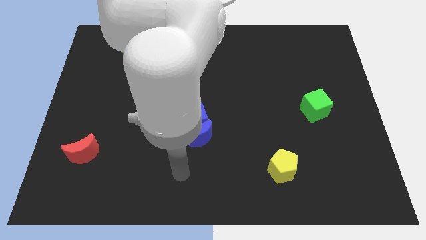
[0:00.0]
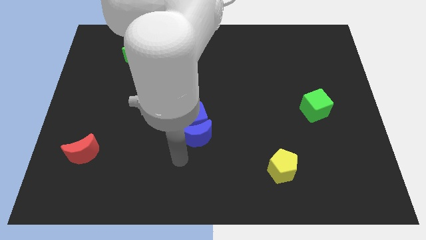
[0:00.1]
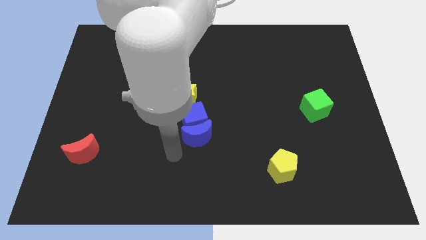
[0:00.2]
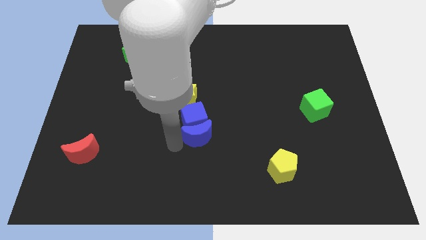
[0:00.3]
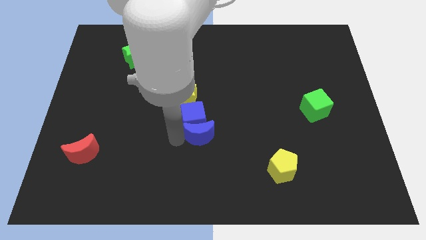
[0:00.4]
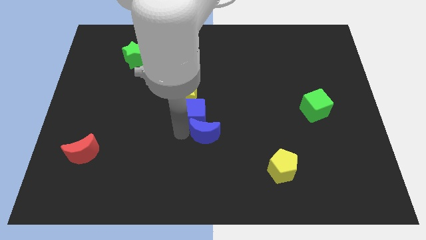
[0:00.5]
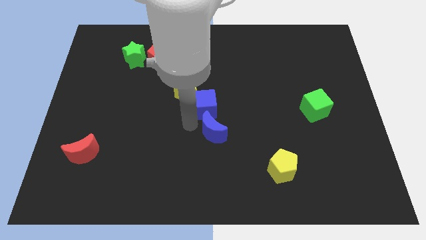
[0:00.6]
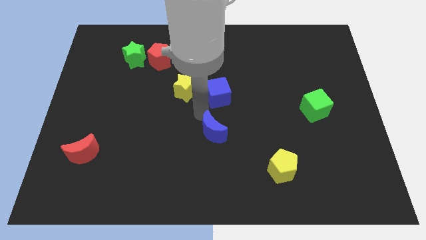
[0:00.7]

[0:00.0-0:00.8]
separate the blue moon from the blue cube

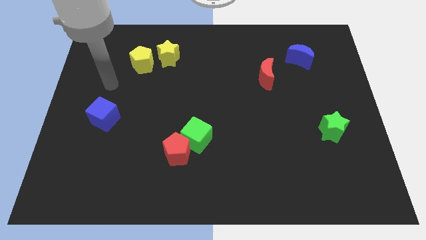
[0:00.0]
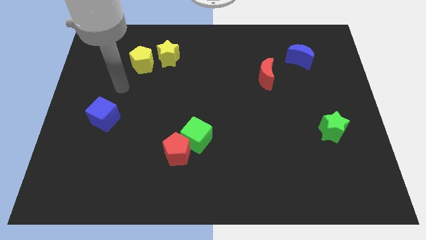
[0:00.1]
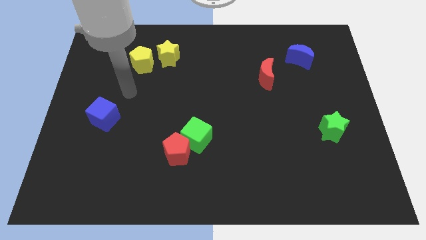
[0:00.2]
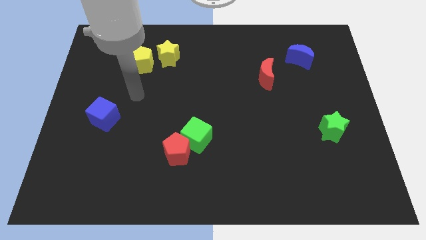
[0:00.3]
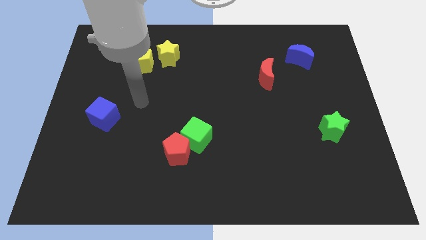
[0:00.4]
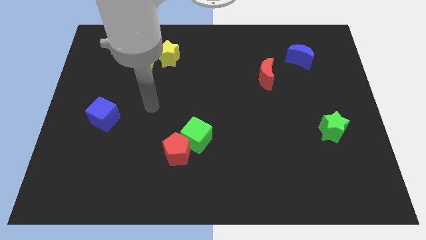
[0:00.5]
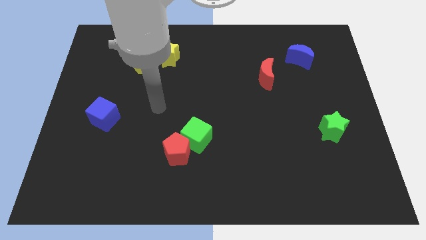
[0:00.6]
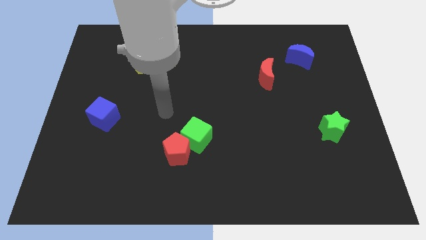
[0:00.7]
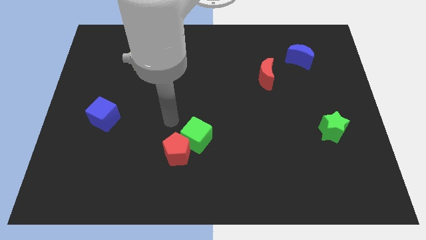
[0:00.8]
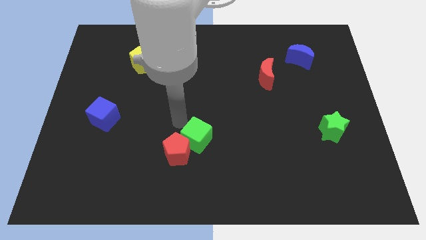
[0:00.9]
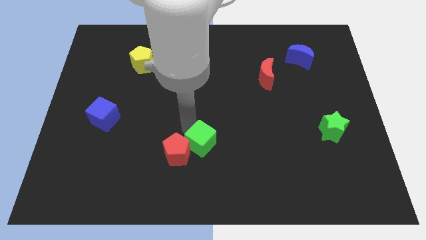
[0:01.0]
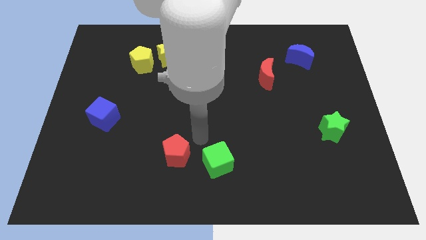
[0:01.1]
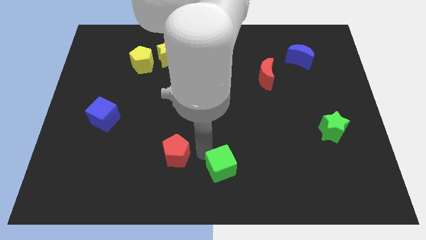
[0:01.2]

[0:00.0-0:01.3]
move the red pentagon away from the green cube

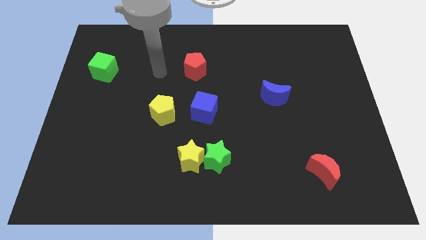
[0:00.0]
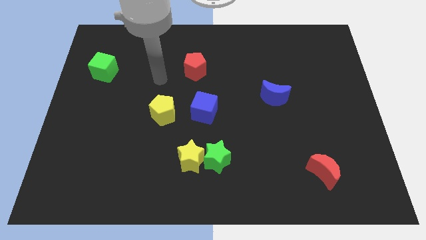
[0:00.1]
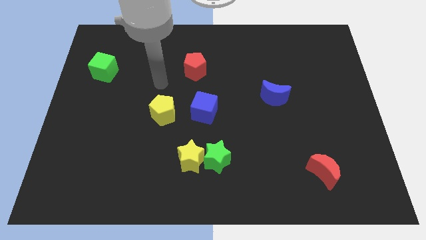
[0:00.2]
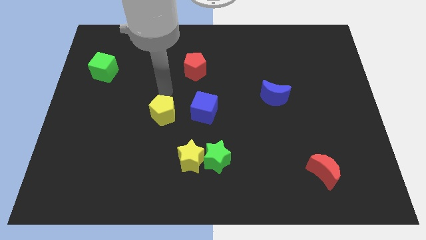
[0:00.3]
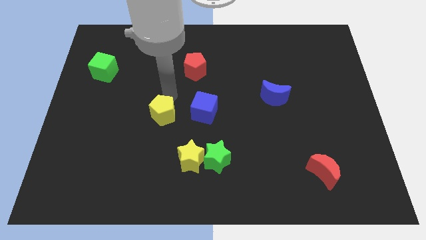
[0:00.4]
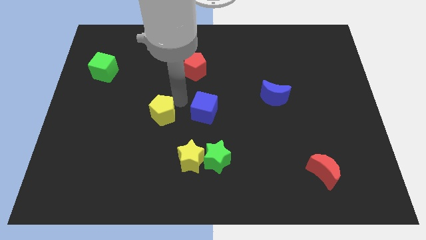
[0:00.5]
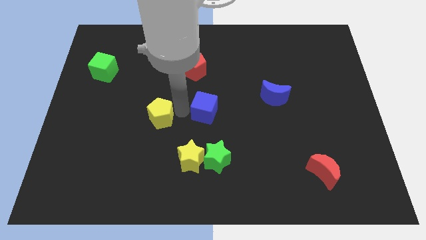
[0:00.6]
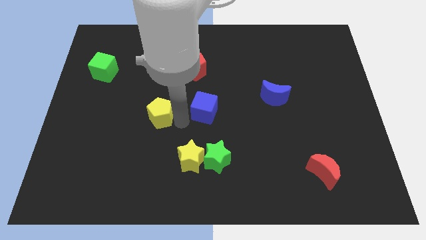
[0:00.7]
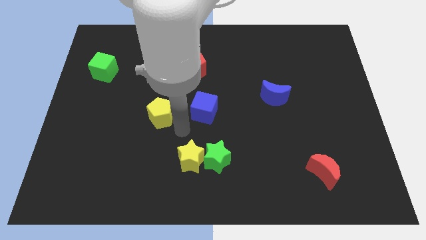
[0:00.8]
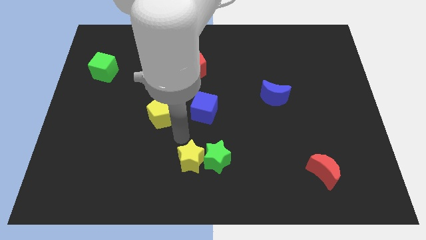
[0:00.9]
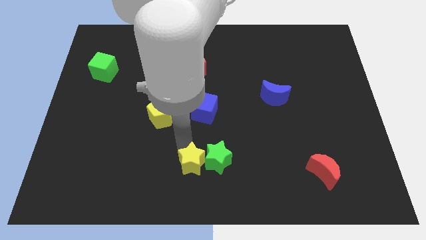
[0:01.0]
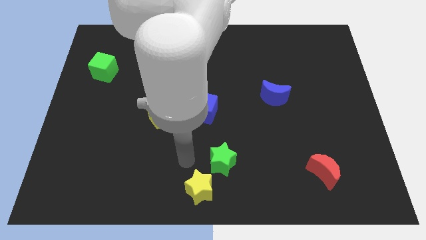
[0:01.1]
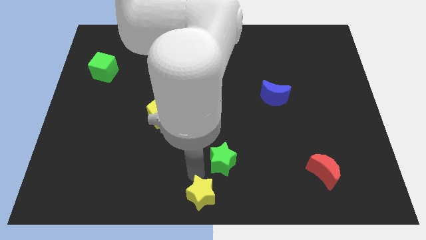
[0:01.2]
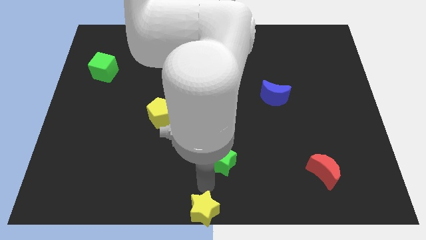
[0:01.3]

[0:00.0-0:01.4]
move the green star away from the yellow star

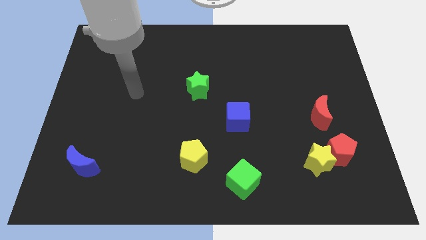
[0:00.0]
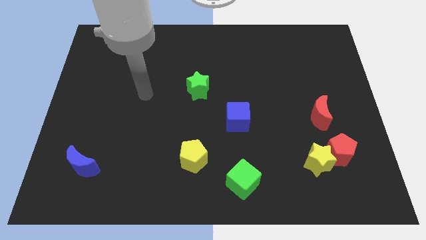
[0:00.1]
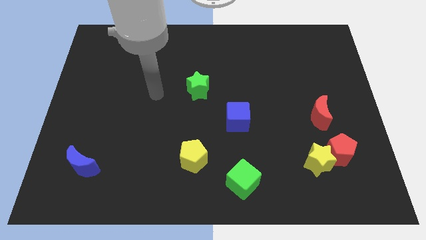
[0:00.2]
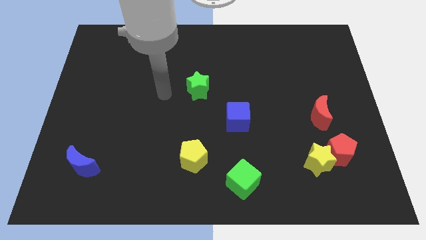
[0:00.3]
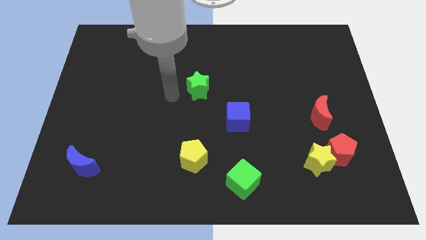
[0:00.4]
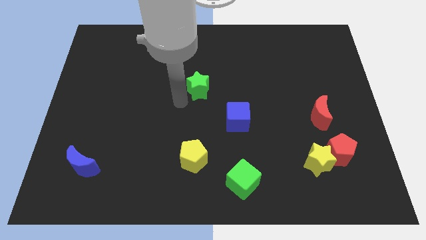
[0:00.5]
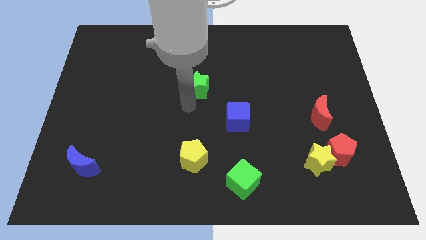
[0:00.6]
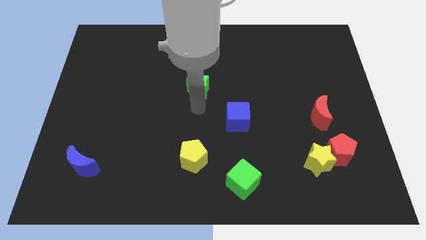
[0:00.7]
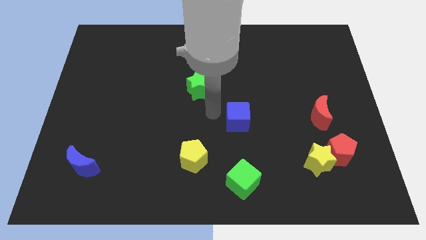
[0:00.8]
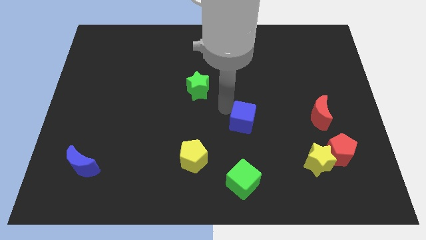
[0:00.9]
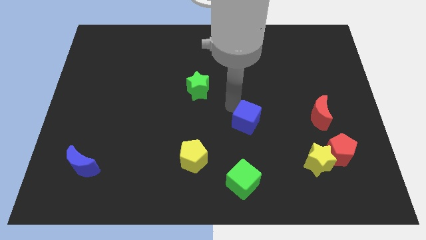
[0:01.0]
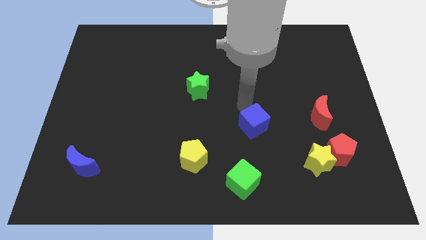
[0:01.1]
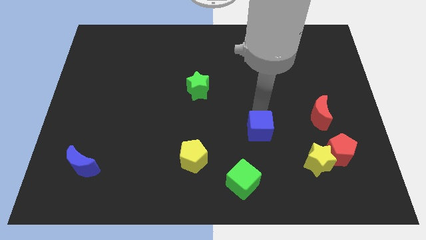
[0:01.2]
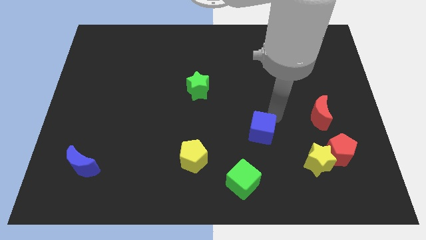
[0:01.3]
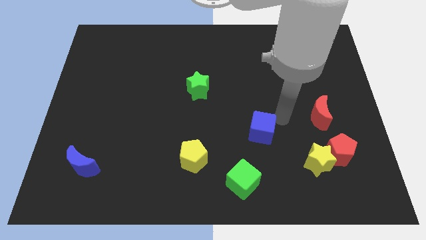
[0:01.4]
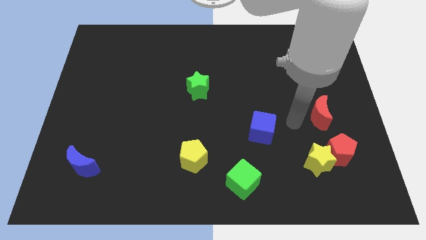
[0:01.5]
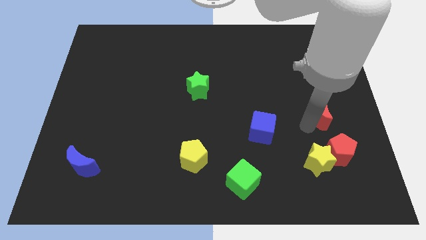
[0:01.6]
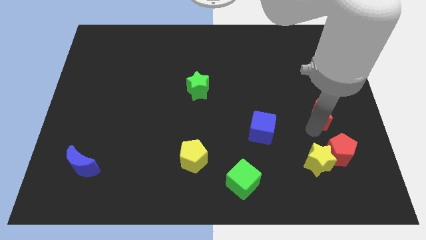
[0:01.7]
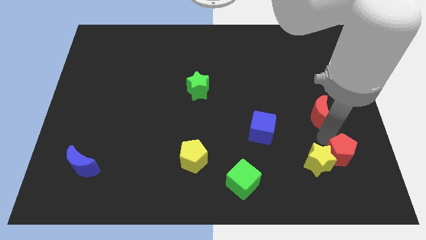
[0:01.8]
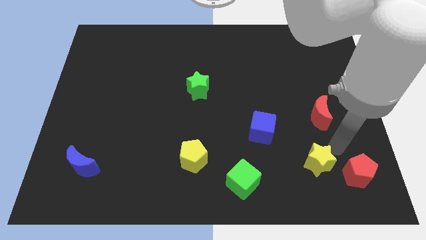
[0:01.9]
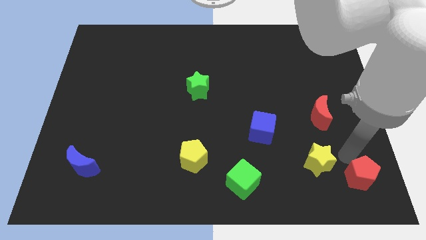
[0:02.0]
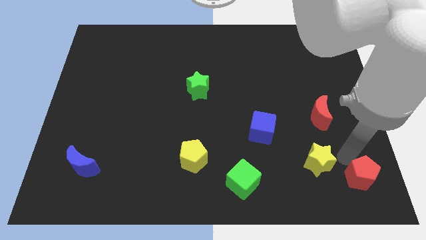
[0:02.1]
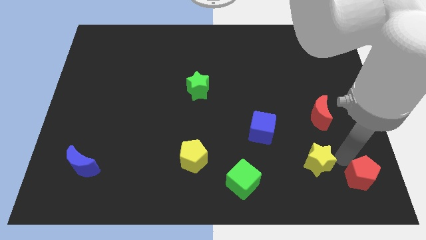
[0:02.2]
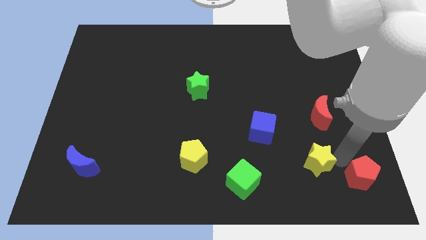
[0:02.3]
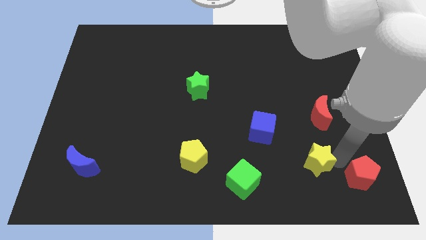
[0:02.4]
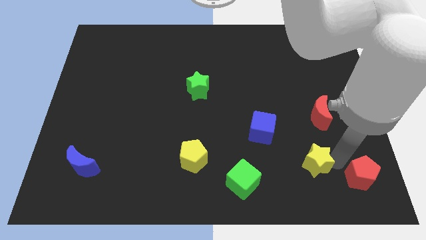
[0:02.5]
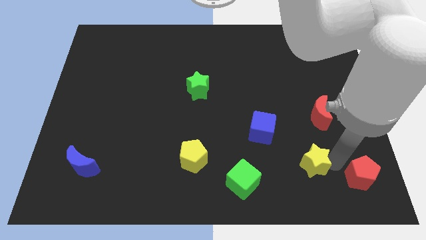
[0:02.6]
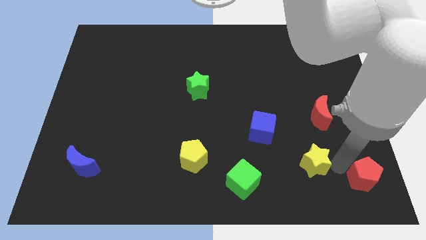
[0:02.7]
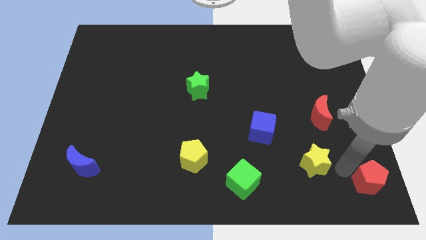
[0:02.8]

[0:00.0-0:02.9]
pull the yellow star apart from the red pentagon

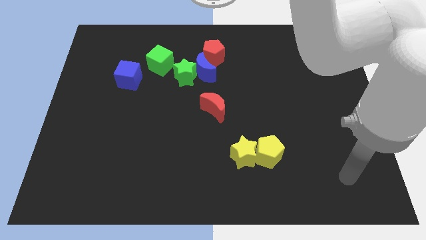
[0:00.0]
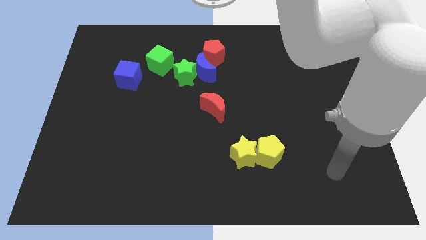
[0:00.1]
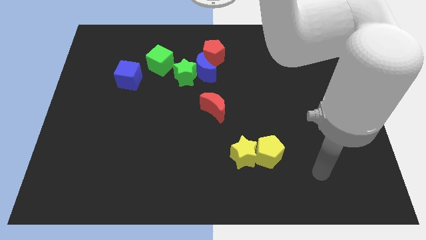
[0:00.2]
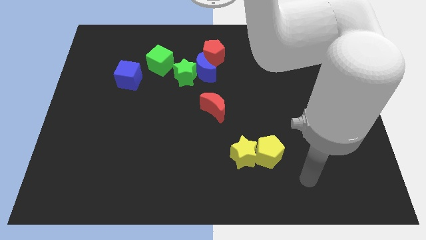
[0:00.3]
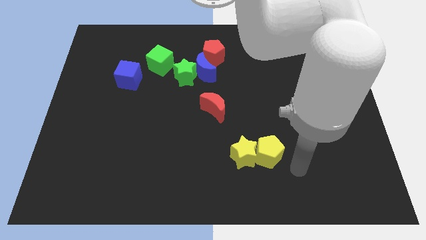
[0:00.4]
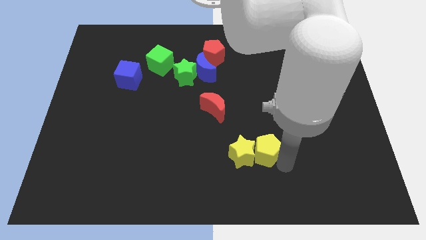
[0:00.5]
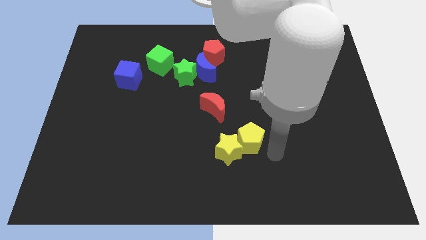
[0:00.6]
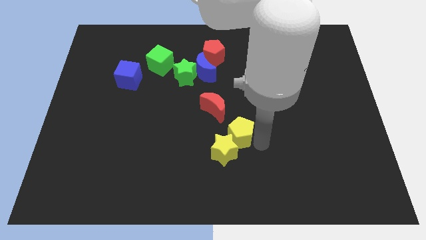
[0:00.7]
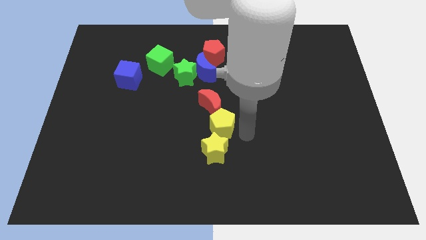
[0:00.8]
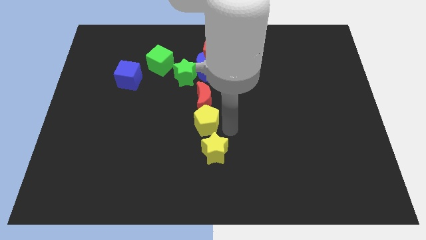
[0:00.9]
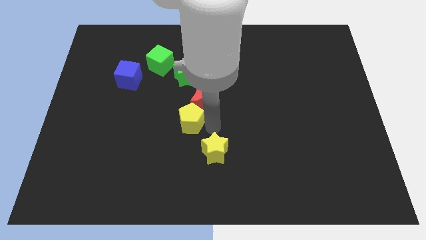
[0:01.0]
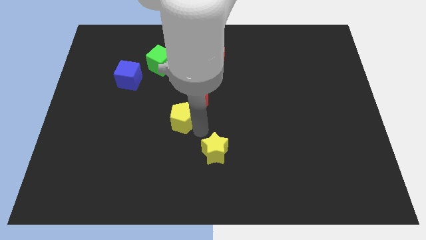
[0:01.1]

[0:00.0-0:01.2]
pull the yellow star apart from the yellow pentagon

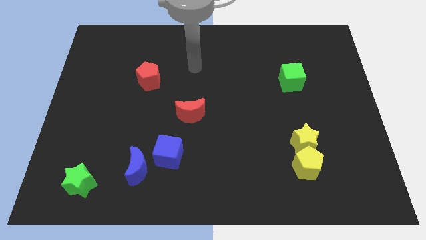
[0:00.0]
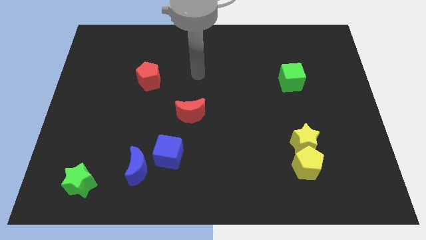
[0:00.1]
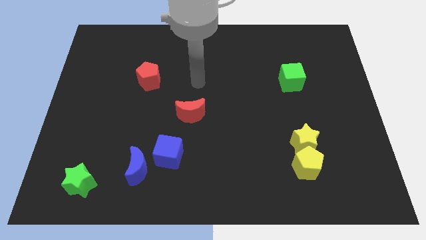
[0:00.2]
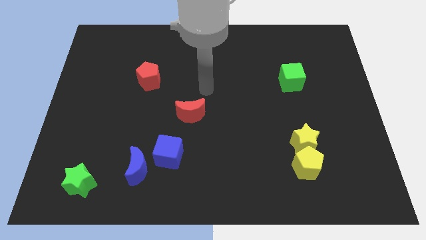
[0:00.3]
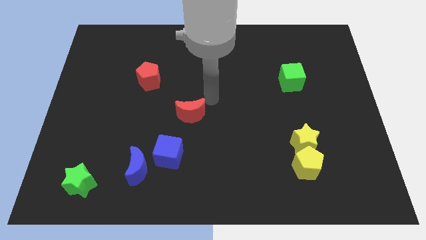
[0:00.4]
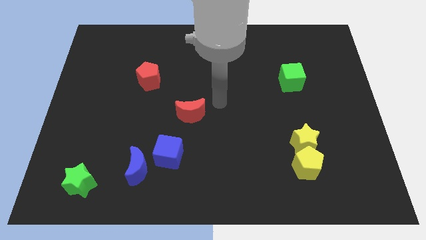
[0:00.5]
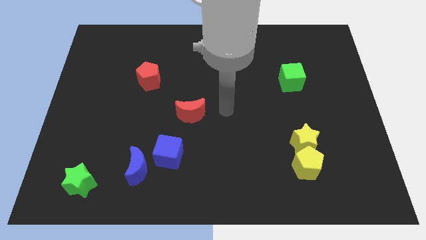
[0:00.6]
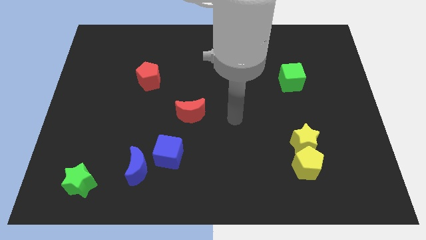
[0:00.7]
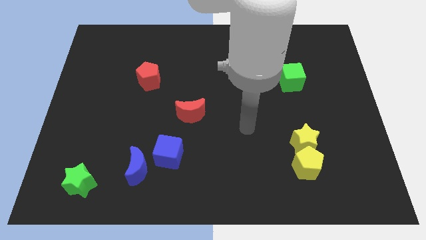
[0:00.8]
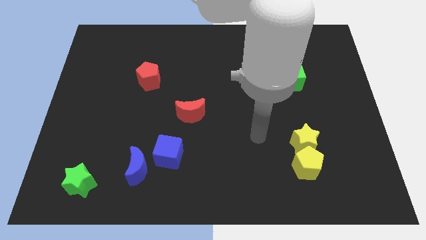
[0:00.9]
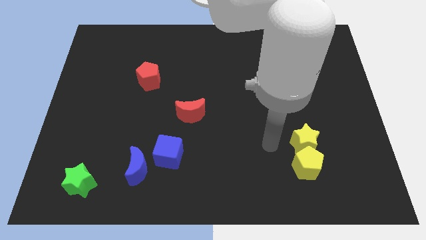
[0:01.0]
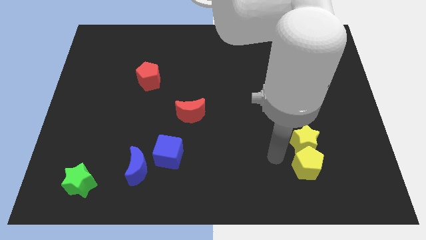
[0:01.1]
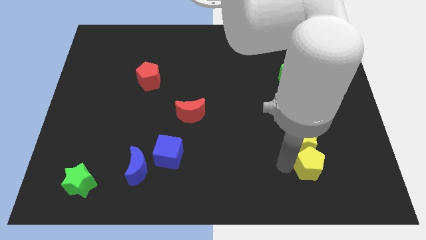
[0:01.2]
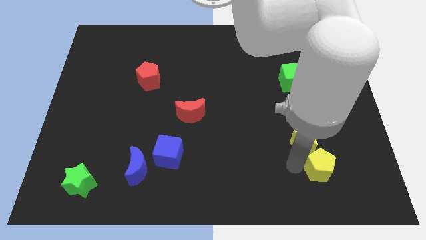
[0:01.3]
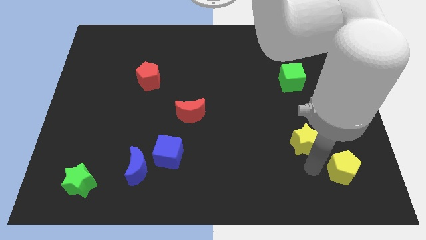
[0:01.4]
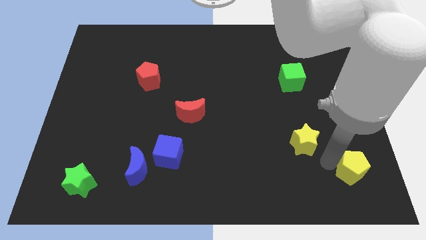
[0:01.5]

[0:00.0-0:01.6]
separate the yellow star from the yellow pentagon

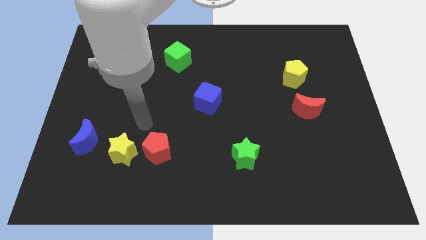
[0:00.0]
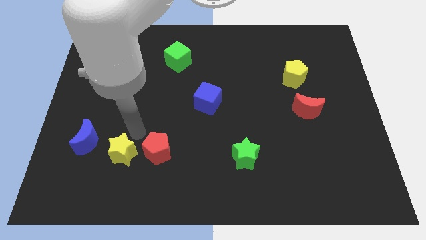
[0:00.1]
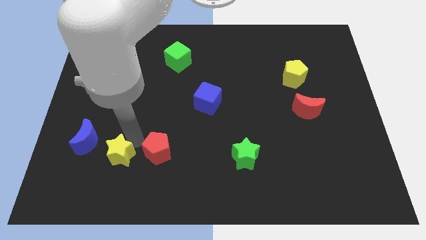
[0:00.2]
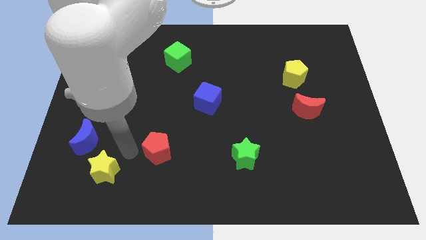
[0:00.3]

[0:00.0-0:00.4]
move the red pentagon away from the yellow star
